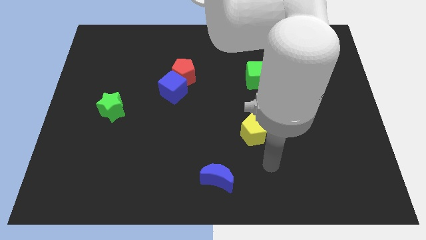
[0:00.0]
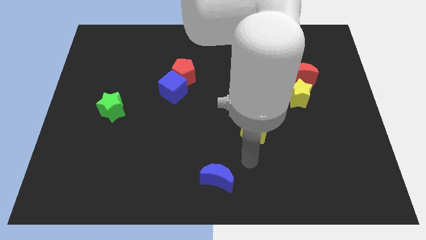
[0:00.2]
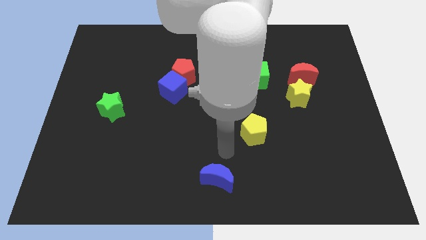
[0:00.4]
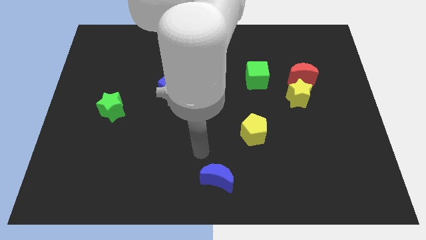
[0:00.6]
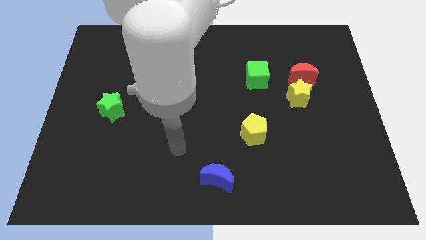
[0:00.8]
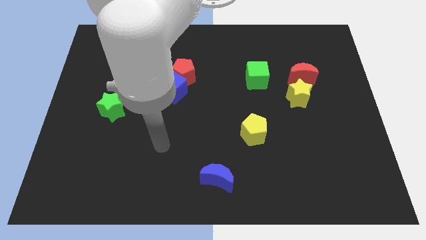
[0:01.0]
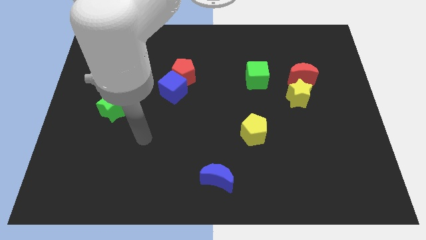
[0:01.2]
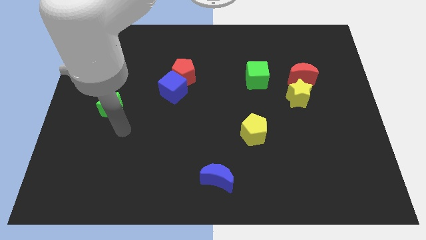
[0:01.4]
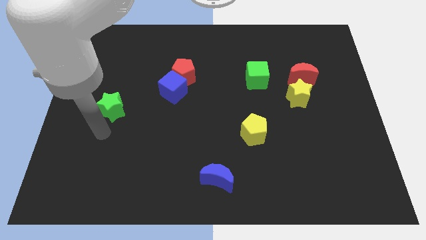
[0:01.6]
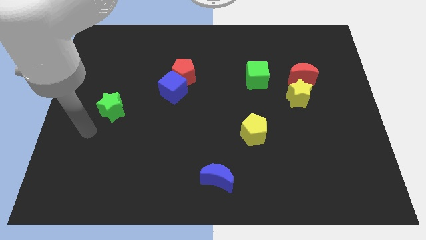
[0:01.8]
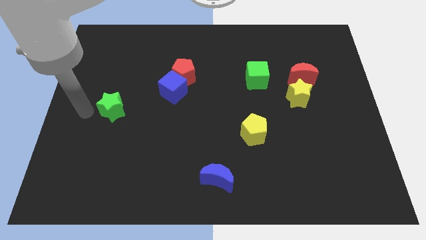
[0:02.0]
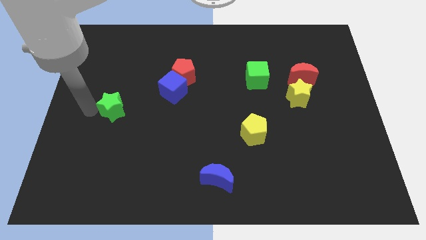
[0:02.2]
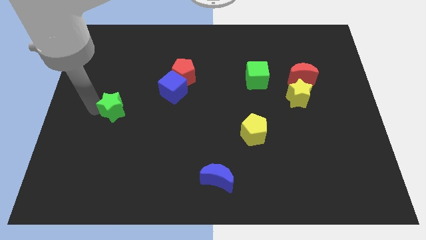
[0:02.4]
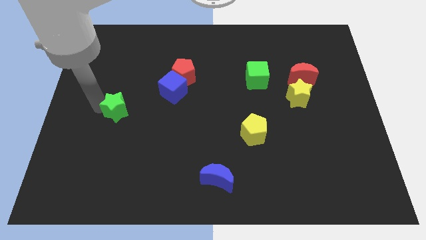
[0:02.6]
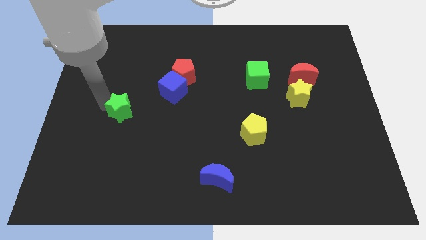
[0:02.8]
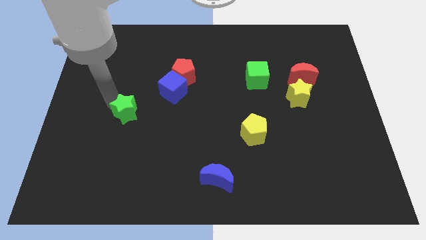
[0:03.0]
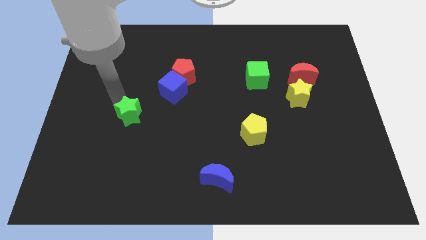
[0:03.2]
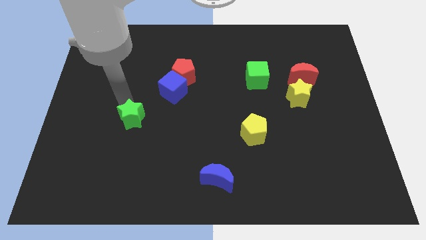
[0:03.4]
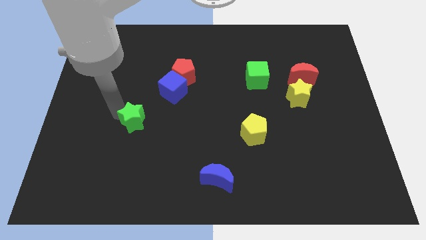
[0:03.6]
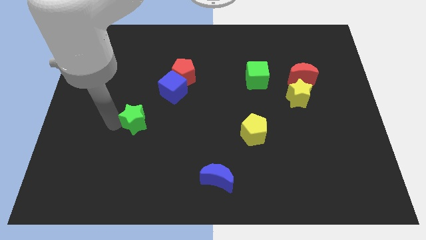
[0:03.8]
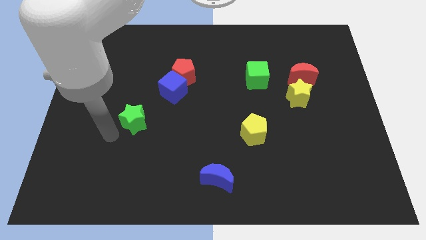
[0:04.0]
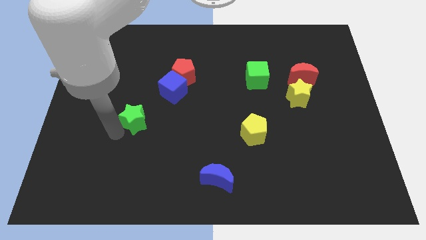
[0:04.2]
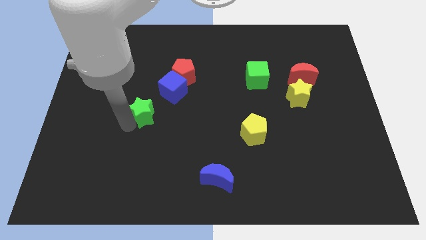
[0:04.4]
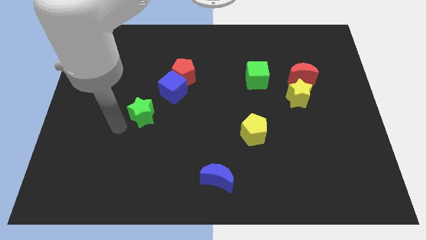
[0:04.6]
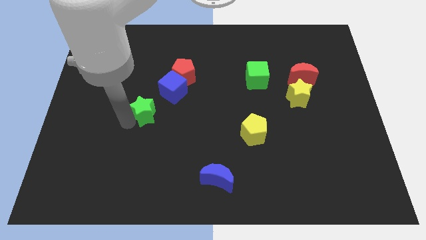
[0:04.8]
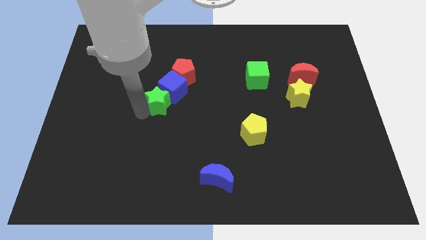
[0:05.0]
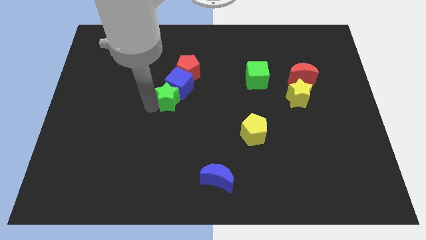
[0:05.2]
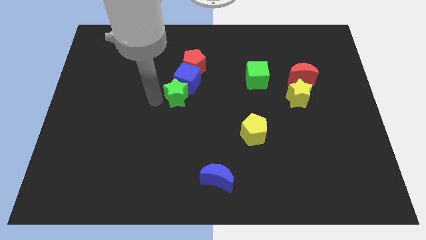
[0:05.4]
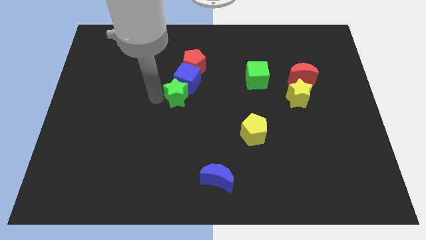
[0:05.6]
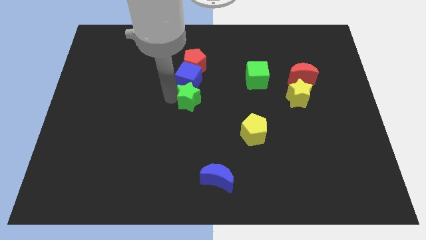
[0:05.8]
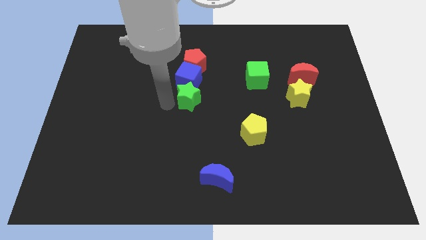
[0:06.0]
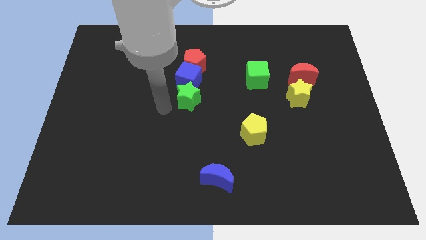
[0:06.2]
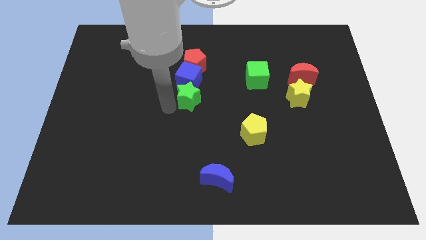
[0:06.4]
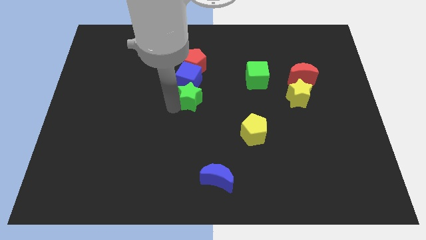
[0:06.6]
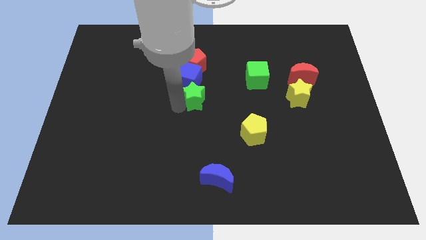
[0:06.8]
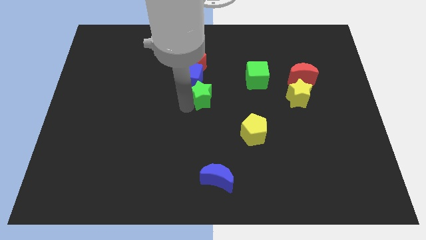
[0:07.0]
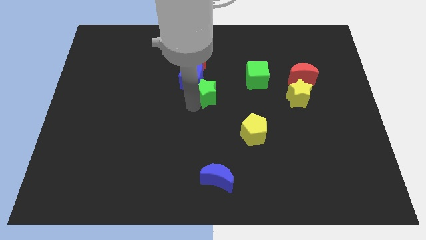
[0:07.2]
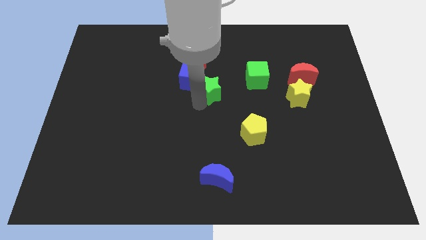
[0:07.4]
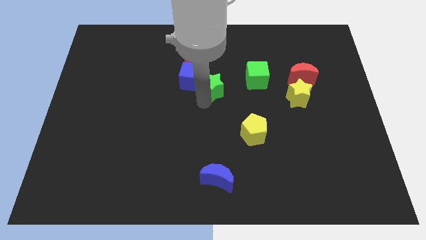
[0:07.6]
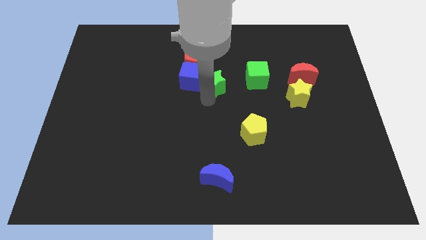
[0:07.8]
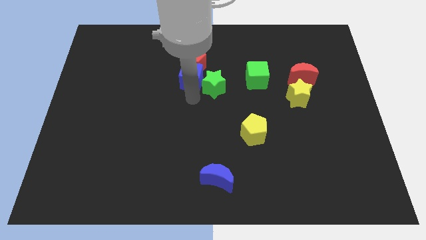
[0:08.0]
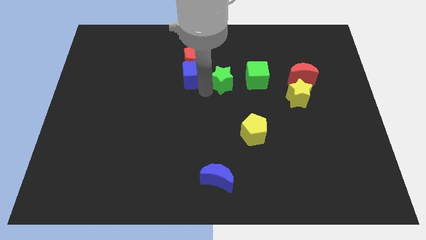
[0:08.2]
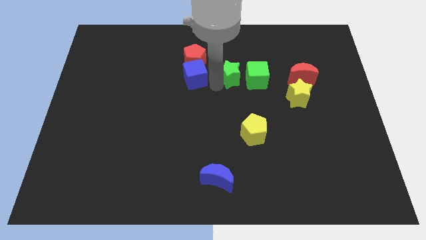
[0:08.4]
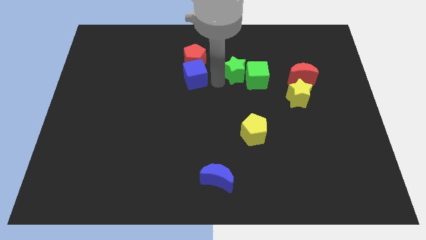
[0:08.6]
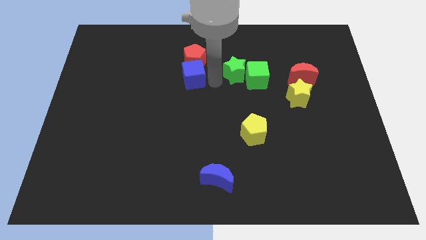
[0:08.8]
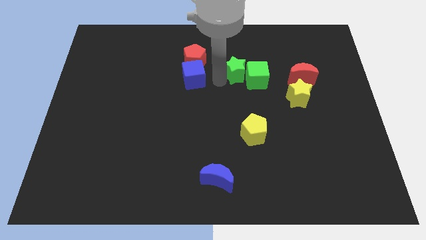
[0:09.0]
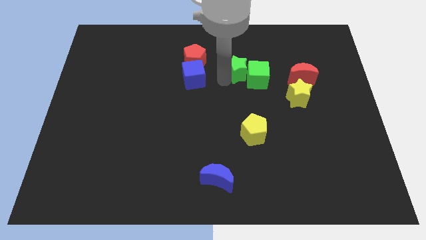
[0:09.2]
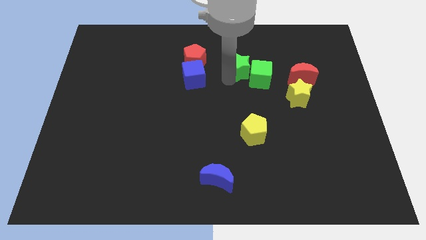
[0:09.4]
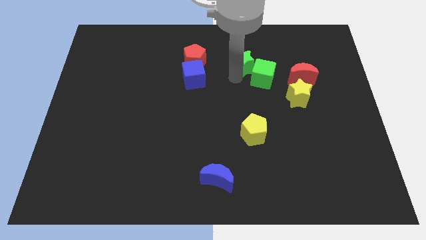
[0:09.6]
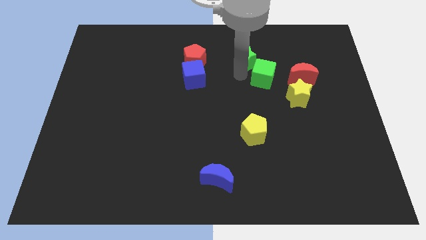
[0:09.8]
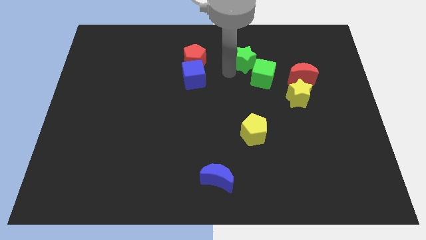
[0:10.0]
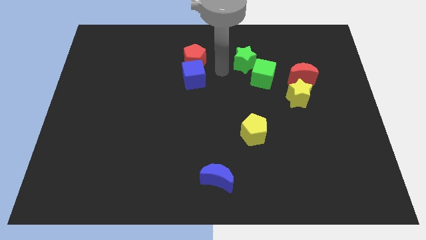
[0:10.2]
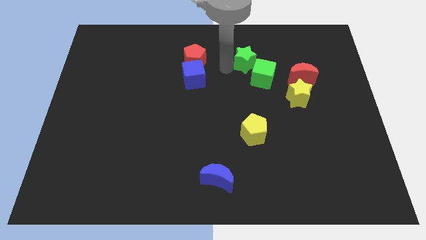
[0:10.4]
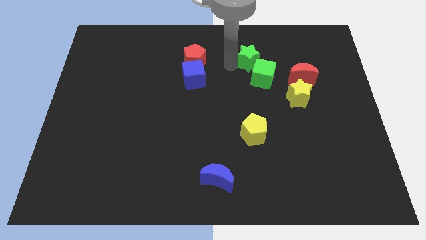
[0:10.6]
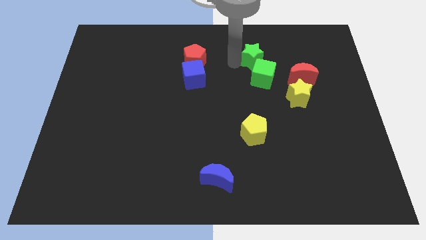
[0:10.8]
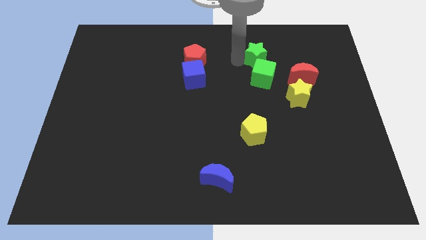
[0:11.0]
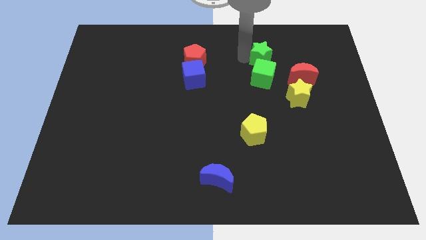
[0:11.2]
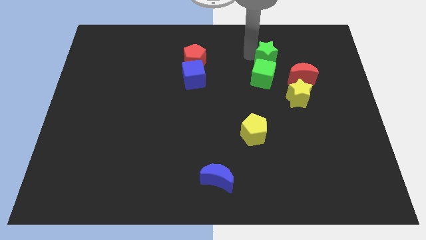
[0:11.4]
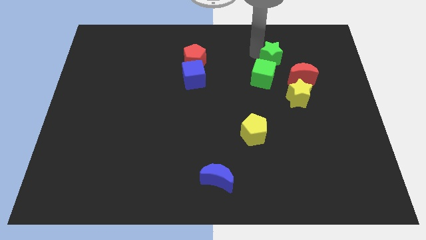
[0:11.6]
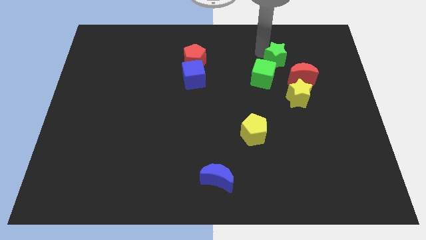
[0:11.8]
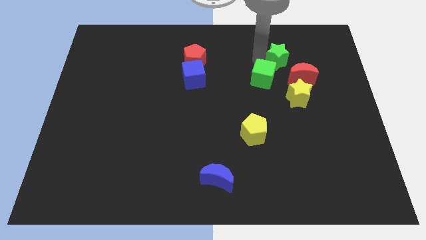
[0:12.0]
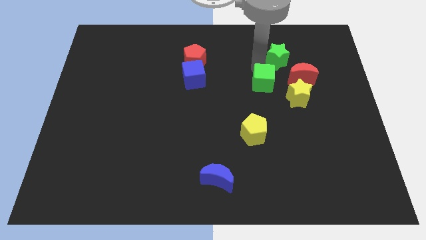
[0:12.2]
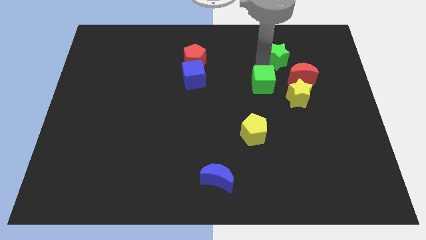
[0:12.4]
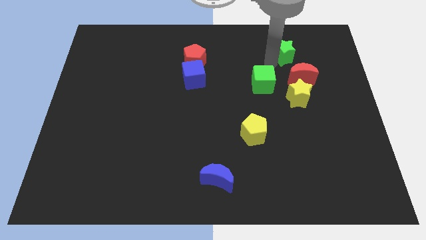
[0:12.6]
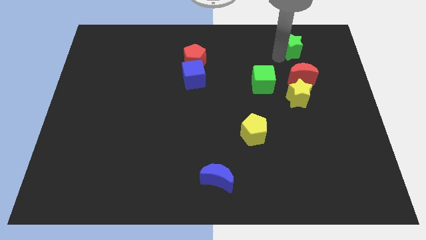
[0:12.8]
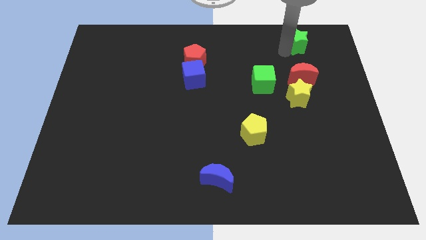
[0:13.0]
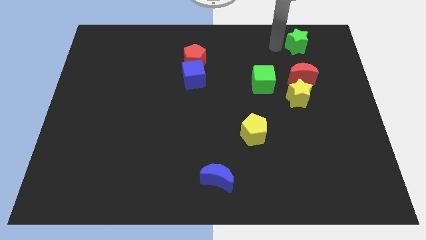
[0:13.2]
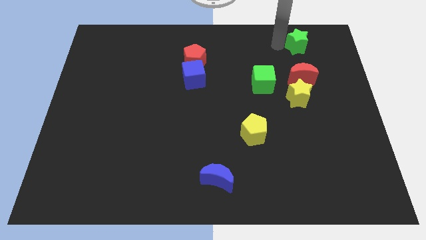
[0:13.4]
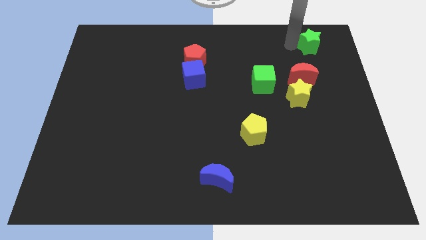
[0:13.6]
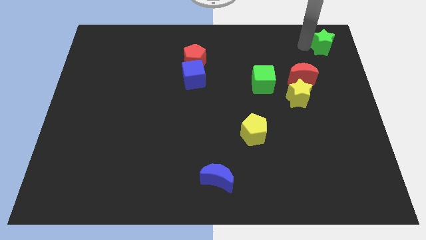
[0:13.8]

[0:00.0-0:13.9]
move the green star to the top right corner
